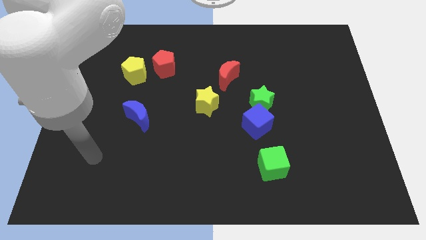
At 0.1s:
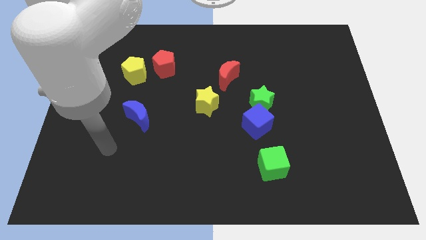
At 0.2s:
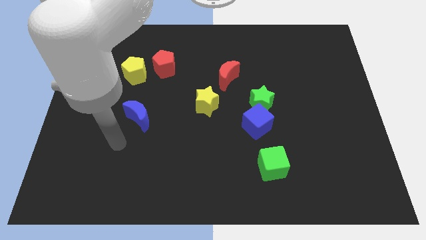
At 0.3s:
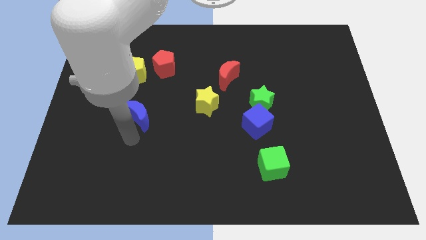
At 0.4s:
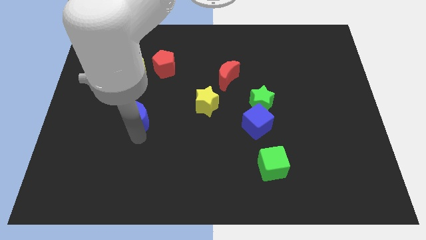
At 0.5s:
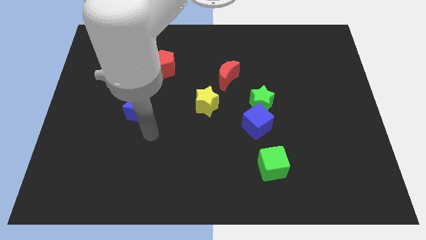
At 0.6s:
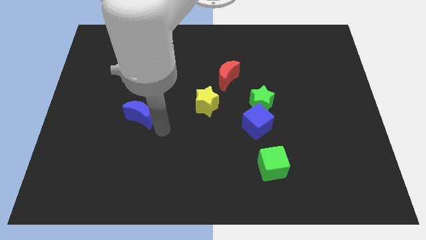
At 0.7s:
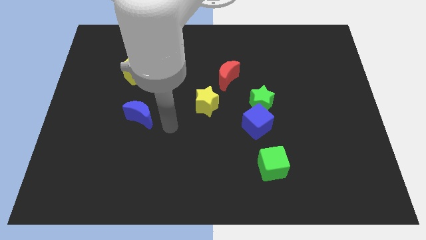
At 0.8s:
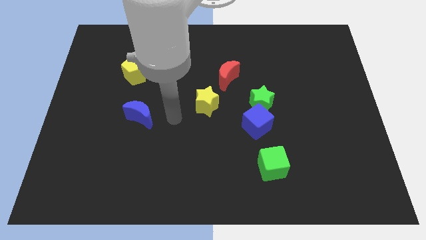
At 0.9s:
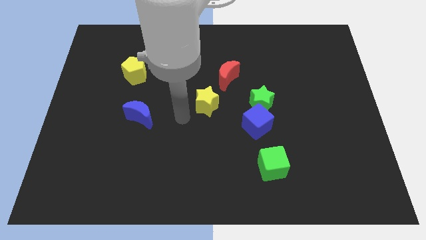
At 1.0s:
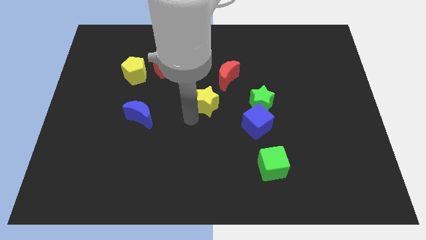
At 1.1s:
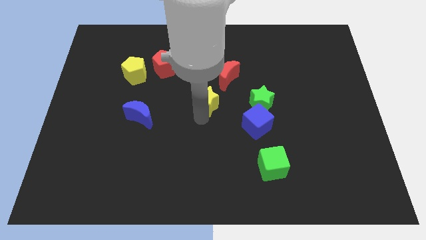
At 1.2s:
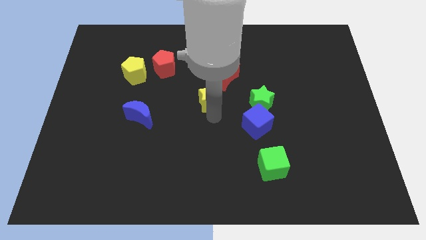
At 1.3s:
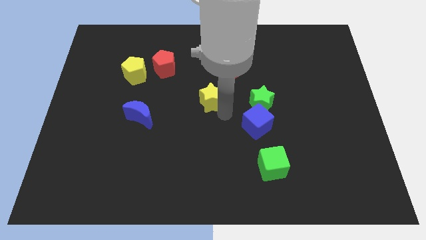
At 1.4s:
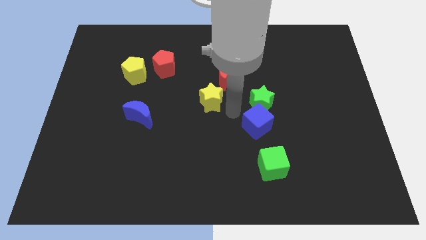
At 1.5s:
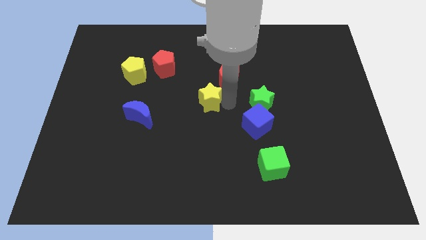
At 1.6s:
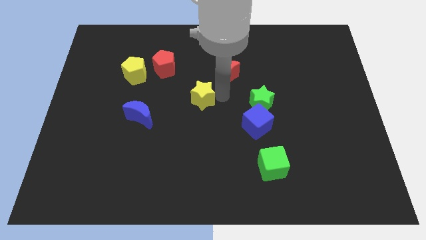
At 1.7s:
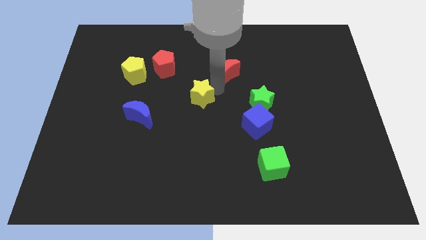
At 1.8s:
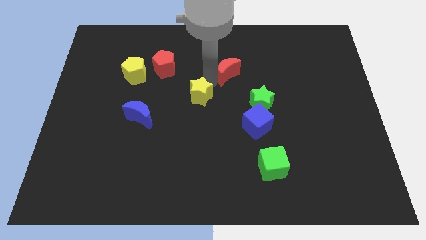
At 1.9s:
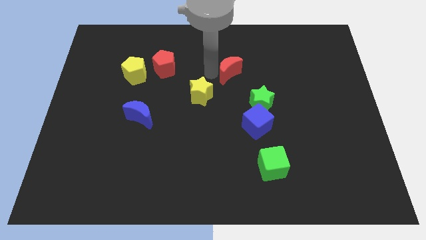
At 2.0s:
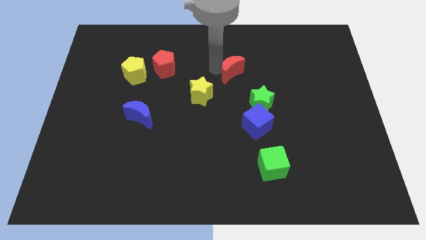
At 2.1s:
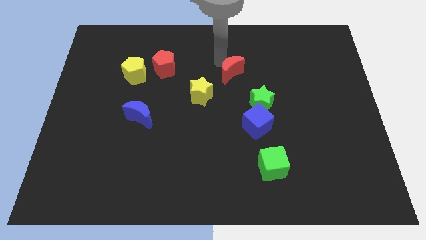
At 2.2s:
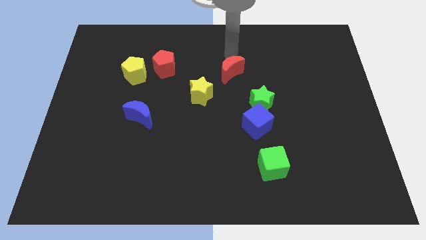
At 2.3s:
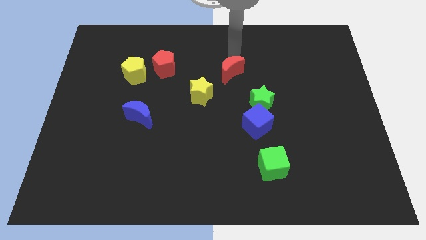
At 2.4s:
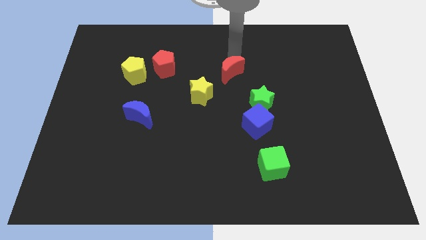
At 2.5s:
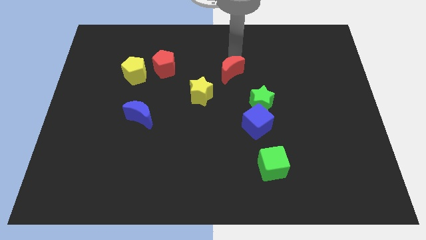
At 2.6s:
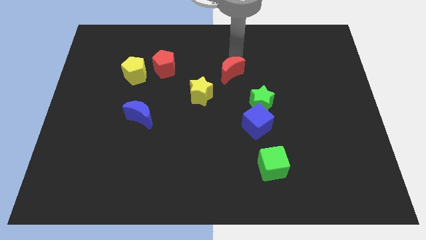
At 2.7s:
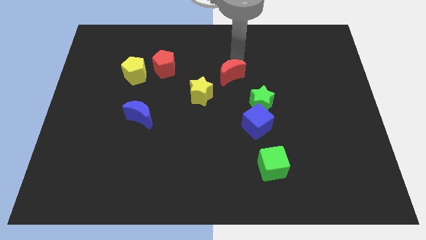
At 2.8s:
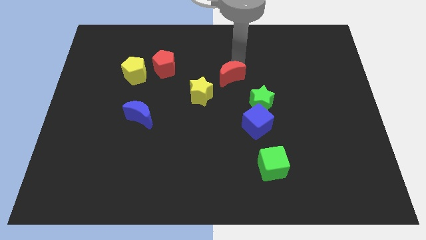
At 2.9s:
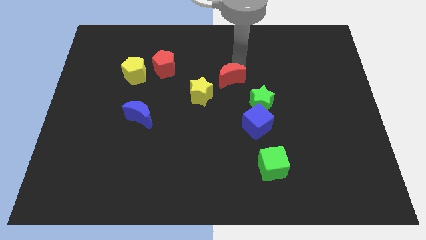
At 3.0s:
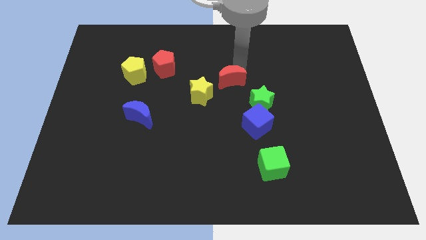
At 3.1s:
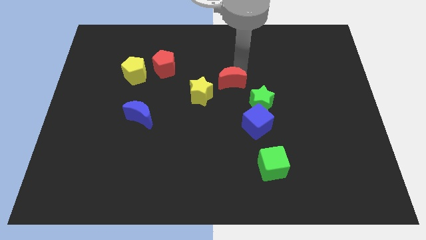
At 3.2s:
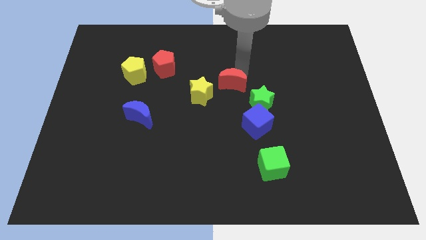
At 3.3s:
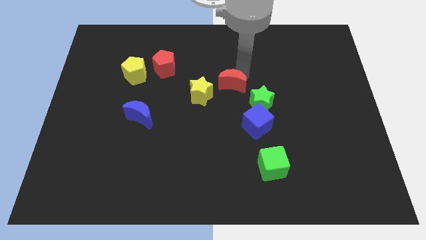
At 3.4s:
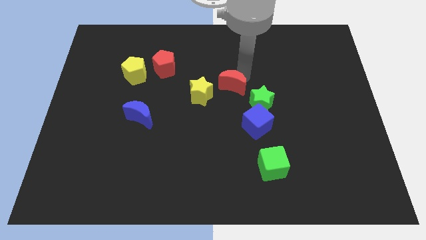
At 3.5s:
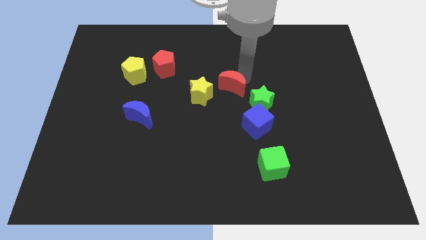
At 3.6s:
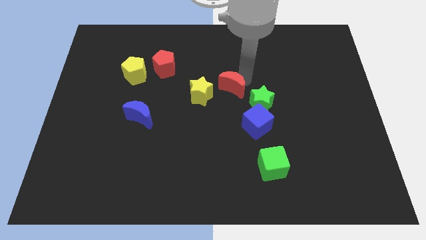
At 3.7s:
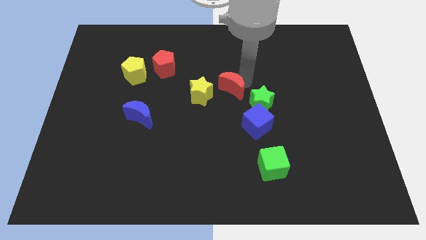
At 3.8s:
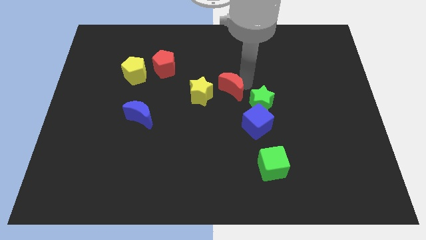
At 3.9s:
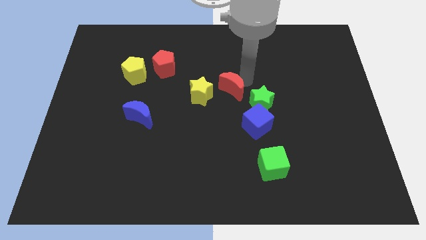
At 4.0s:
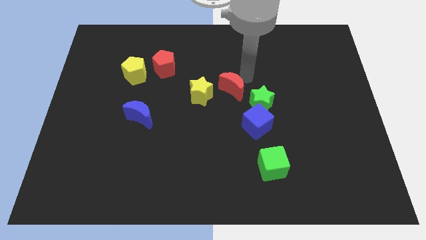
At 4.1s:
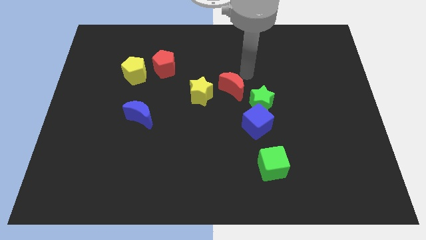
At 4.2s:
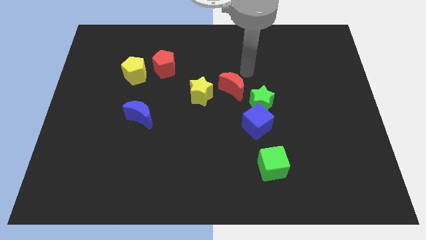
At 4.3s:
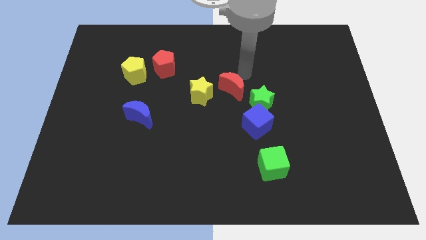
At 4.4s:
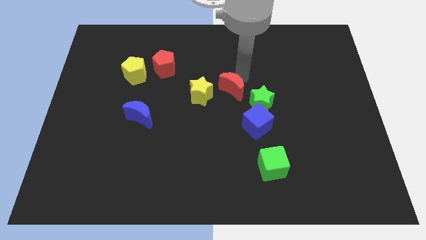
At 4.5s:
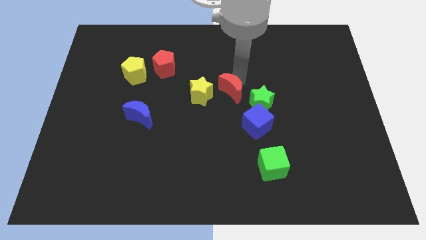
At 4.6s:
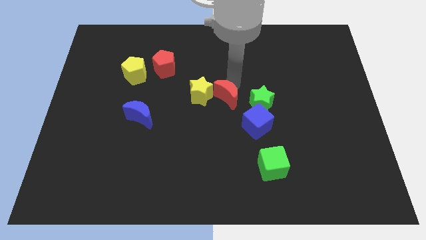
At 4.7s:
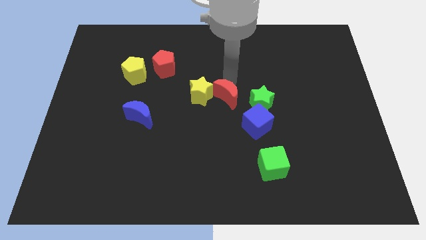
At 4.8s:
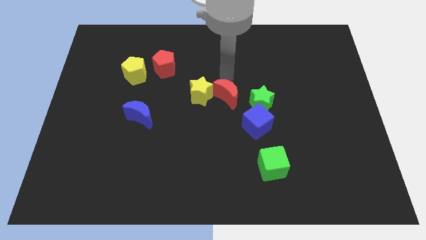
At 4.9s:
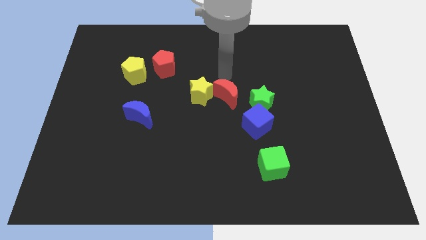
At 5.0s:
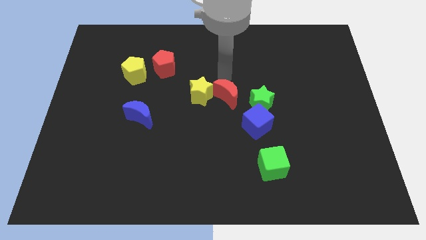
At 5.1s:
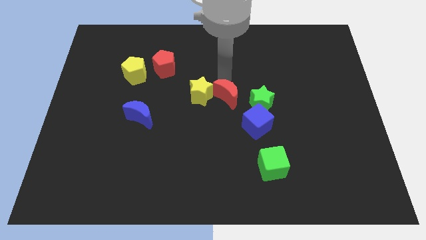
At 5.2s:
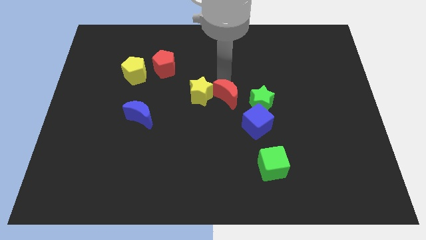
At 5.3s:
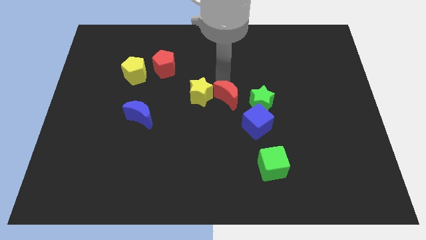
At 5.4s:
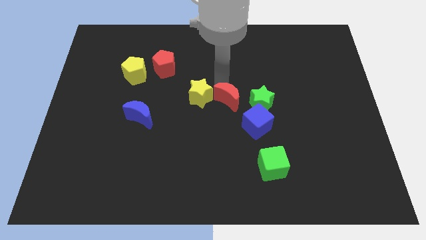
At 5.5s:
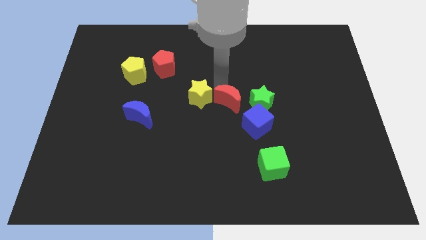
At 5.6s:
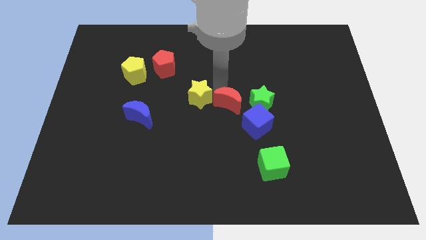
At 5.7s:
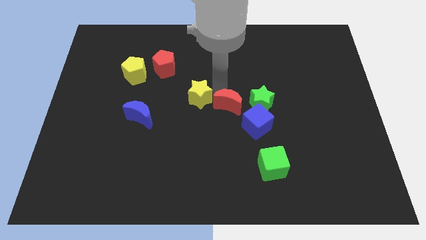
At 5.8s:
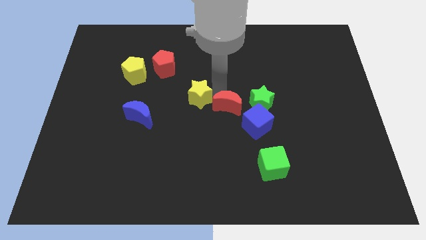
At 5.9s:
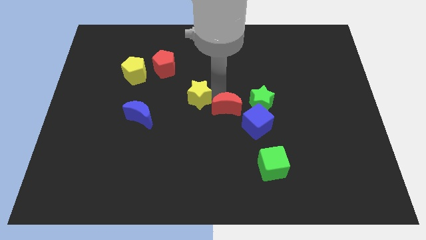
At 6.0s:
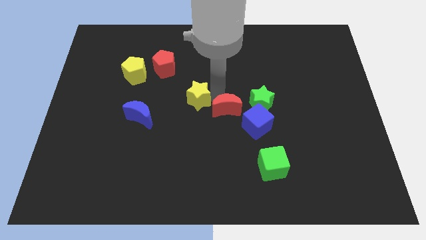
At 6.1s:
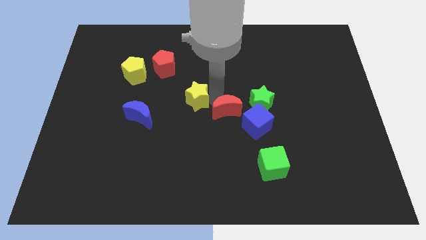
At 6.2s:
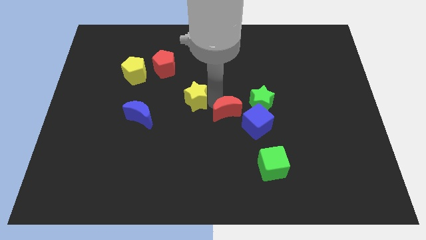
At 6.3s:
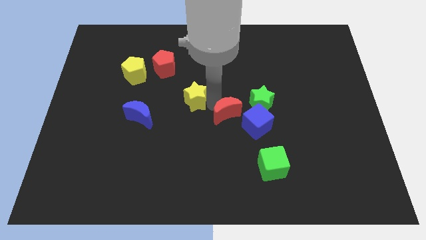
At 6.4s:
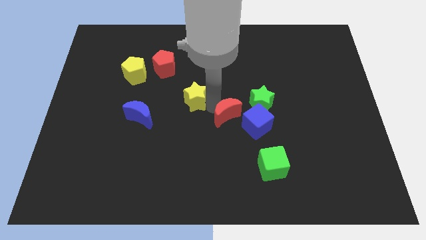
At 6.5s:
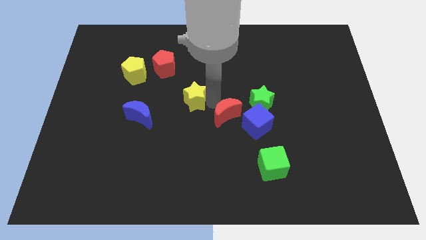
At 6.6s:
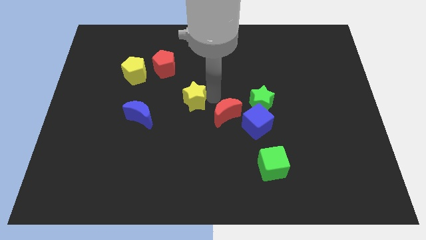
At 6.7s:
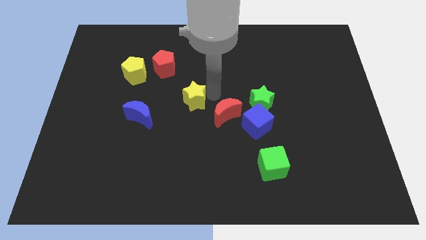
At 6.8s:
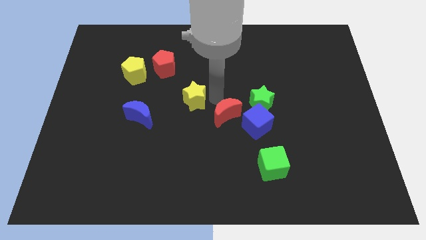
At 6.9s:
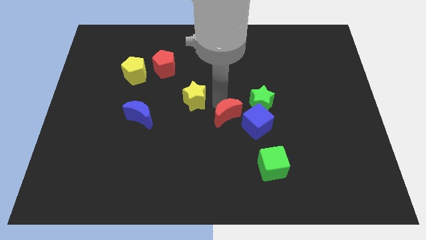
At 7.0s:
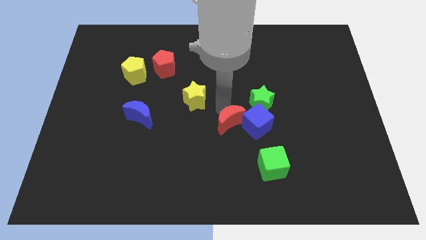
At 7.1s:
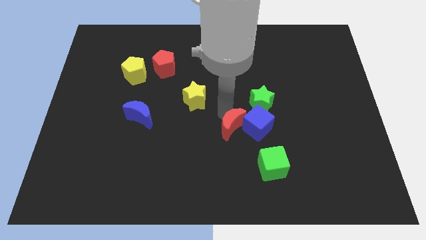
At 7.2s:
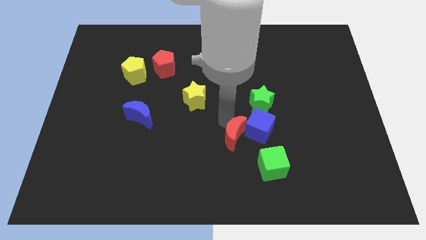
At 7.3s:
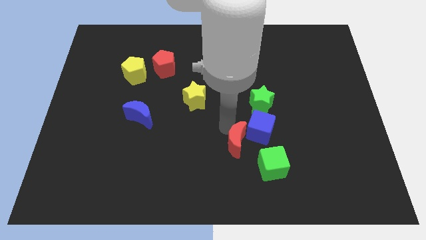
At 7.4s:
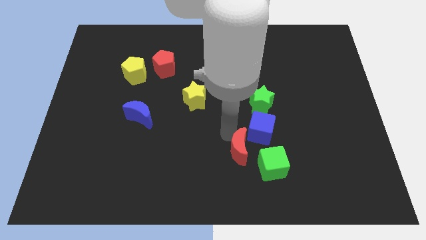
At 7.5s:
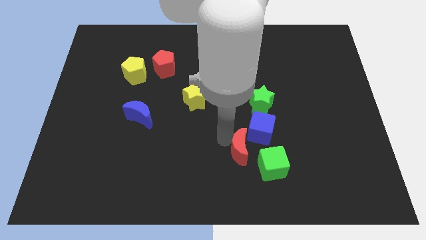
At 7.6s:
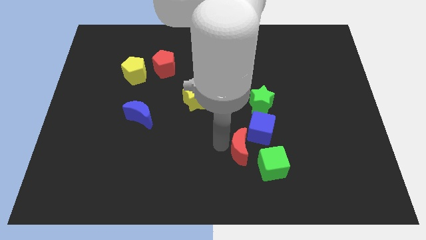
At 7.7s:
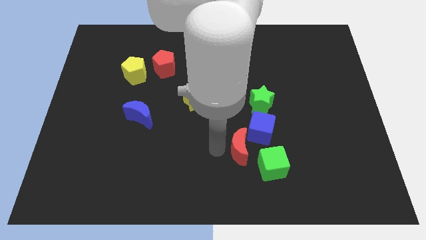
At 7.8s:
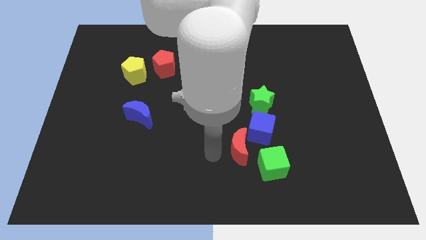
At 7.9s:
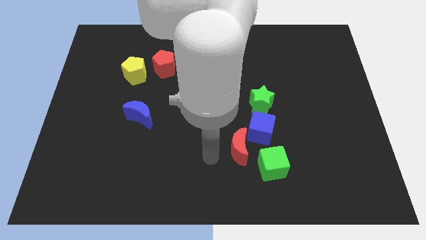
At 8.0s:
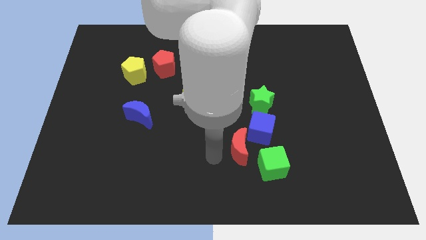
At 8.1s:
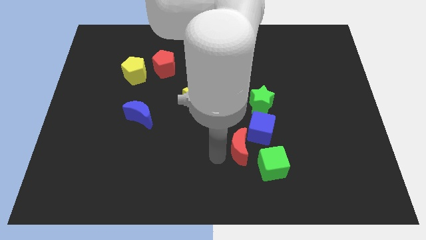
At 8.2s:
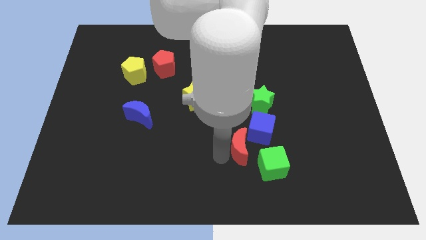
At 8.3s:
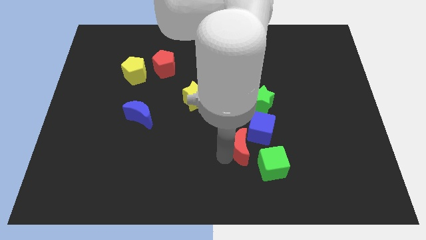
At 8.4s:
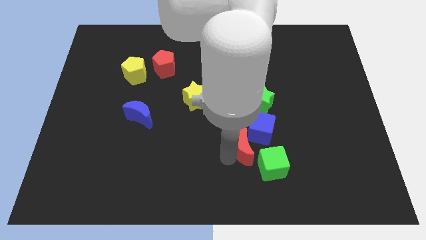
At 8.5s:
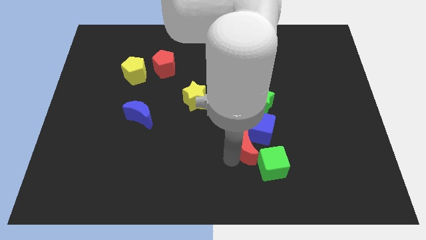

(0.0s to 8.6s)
put the red moon to the bottom side of the green star
